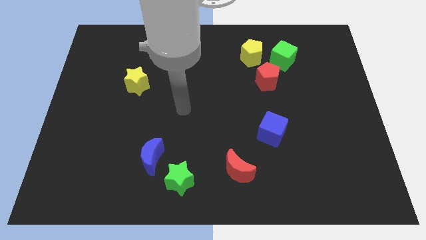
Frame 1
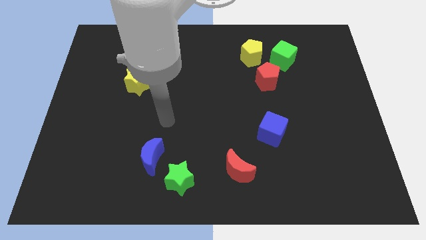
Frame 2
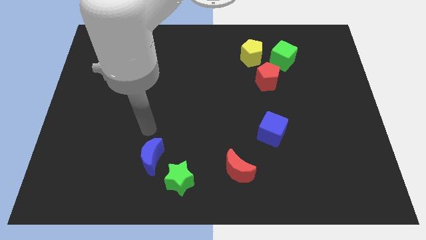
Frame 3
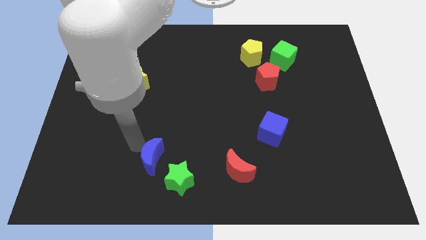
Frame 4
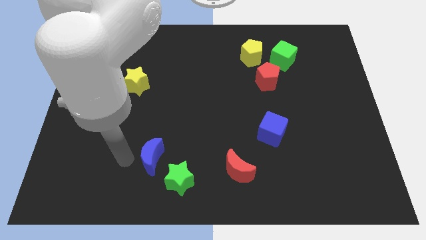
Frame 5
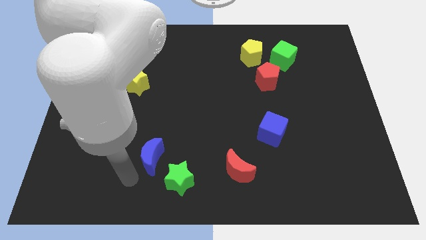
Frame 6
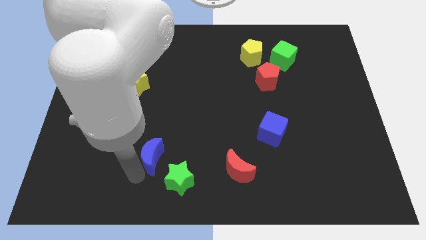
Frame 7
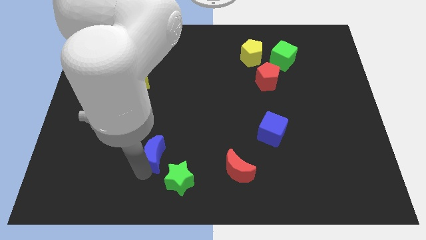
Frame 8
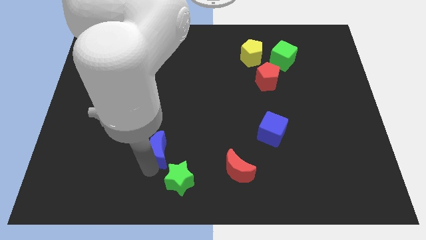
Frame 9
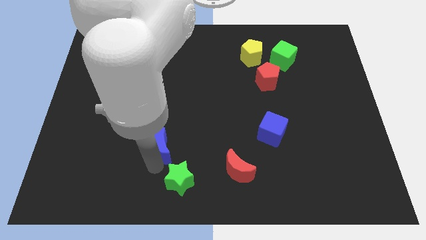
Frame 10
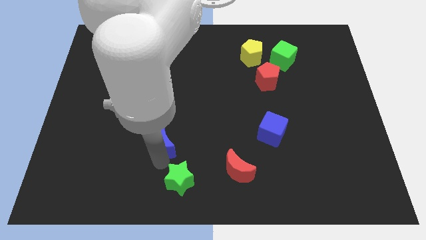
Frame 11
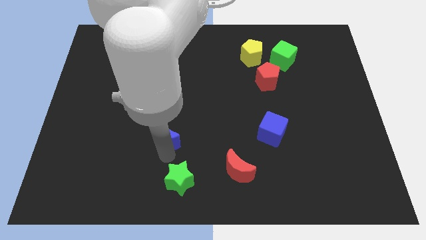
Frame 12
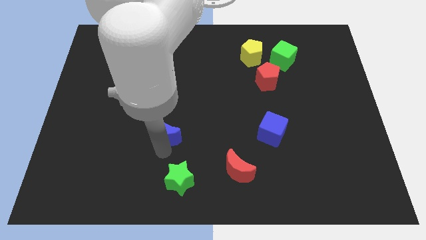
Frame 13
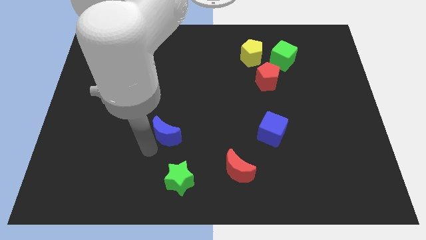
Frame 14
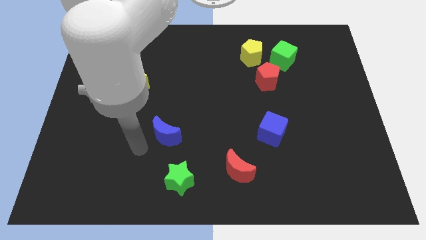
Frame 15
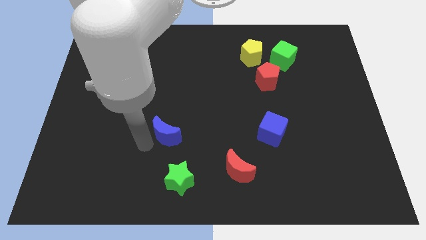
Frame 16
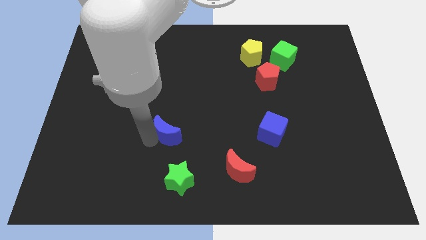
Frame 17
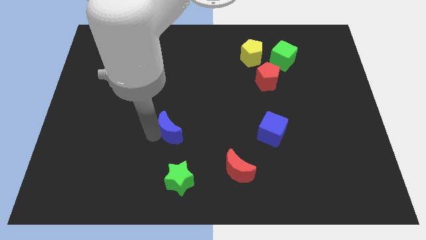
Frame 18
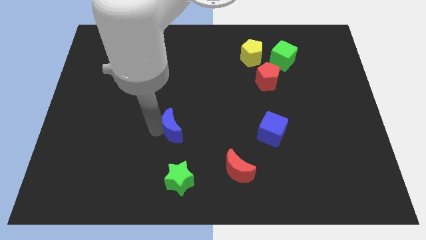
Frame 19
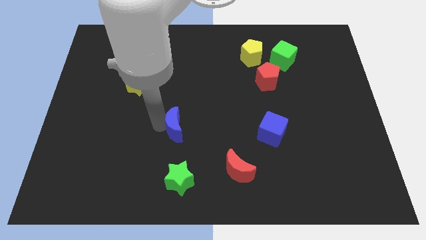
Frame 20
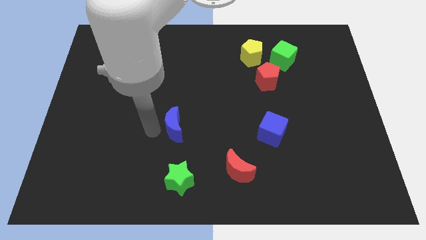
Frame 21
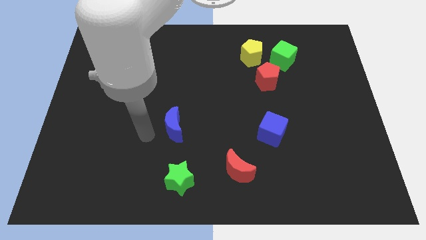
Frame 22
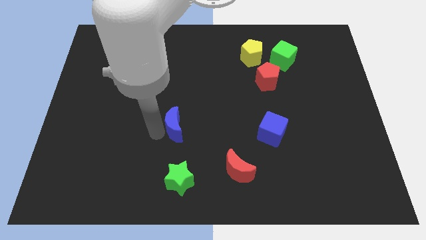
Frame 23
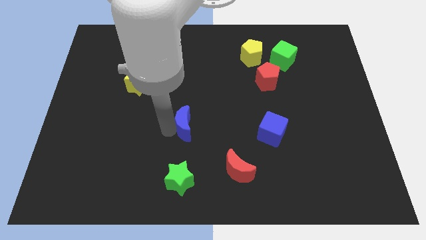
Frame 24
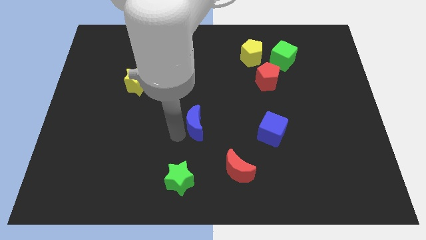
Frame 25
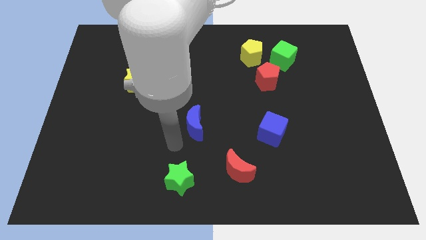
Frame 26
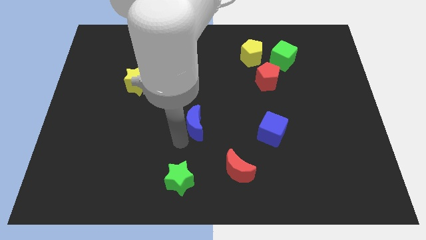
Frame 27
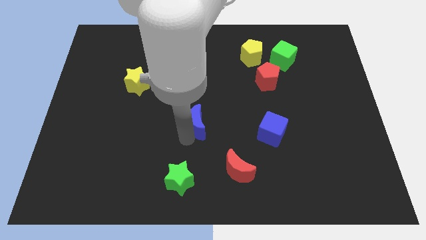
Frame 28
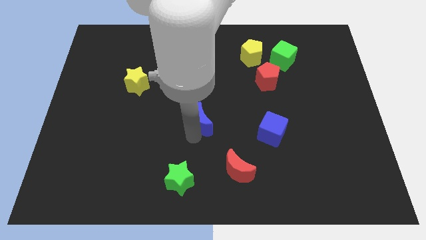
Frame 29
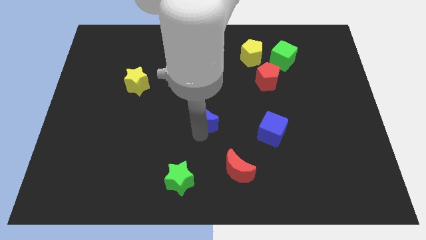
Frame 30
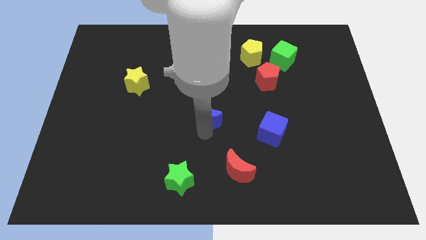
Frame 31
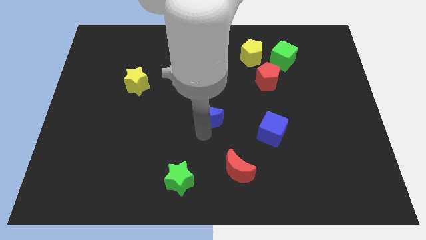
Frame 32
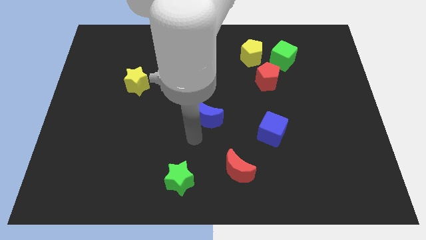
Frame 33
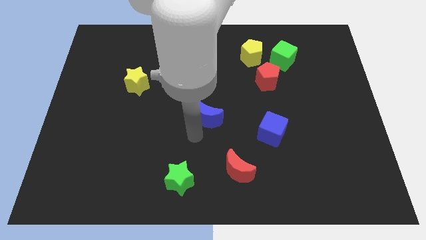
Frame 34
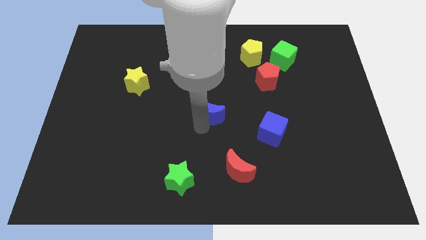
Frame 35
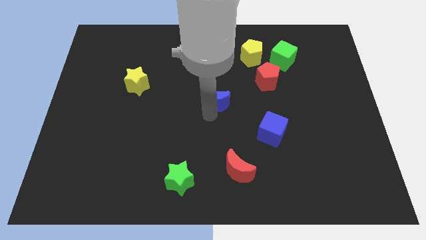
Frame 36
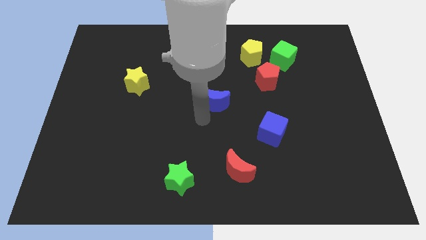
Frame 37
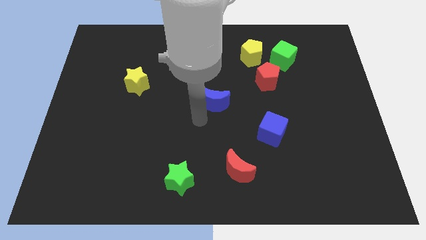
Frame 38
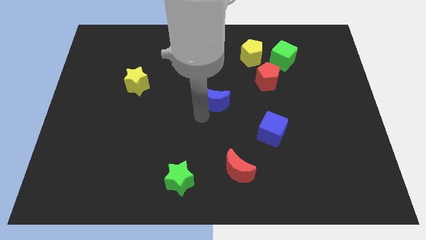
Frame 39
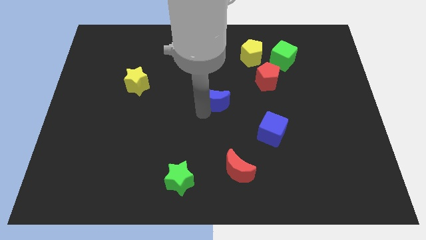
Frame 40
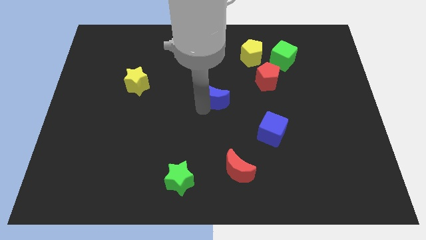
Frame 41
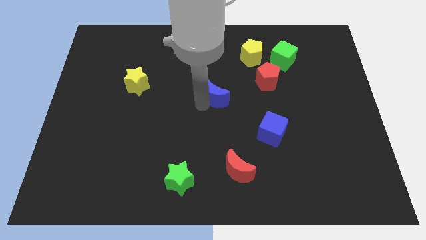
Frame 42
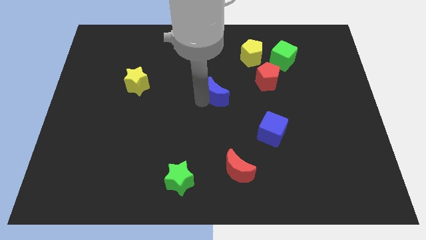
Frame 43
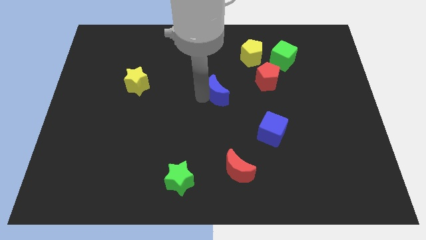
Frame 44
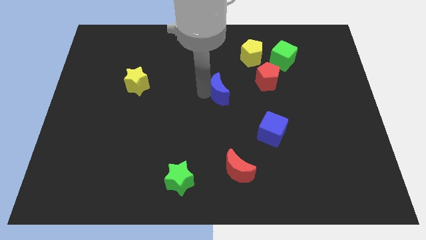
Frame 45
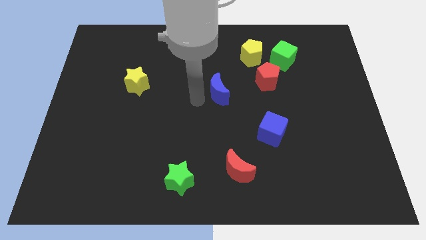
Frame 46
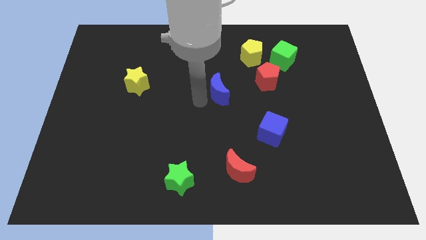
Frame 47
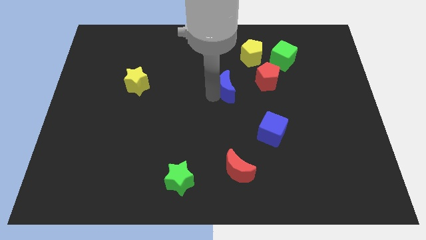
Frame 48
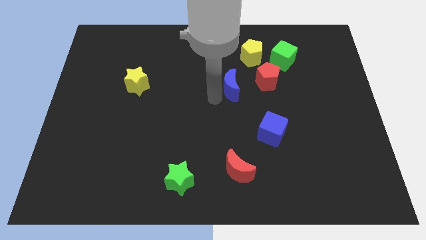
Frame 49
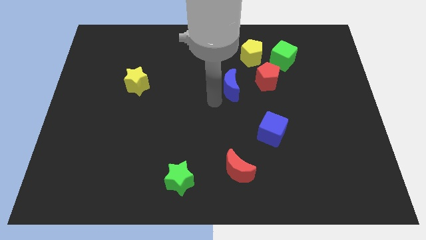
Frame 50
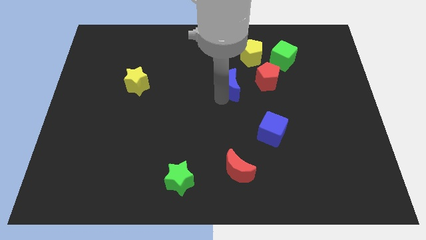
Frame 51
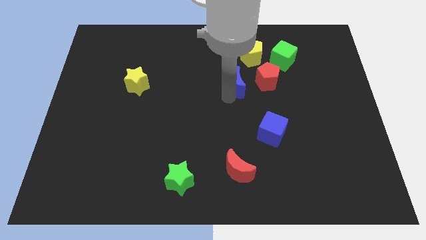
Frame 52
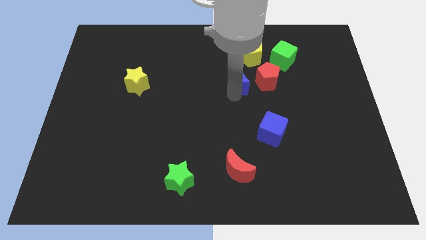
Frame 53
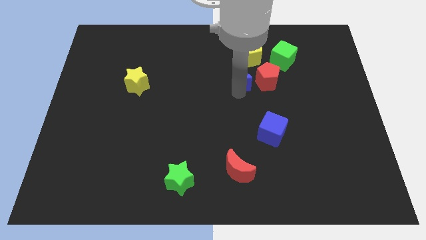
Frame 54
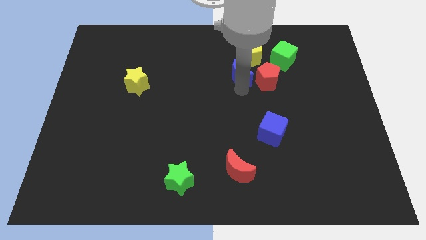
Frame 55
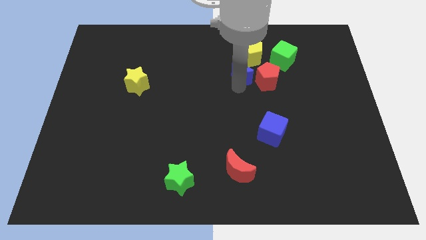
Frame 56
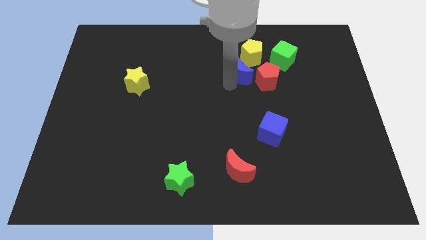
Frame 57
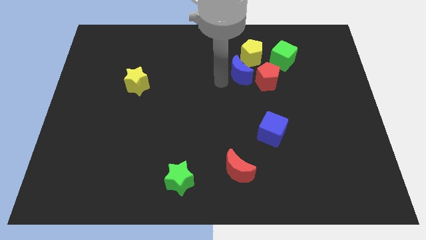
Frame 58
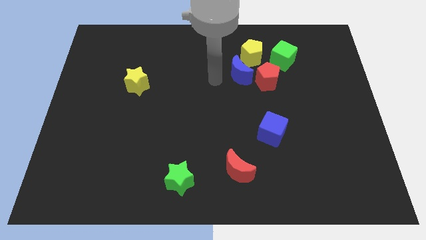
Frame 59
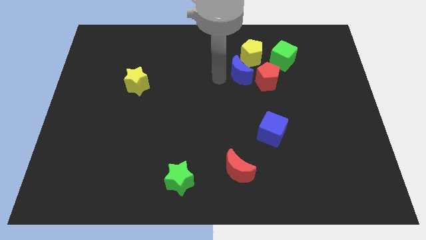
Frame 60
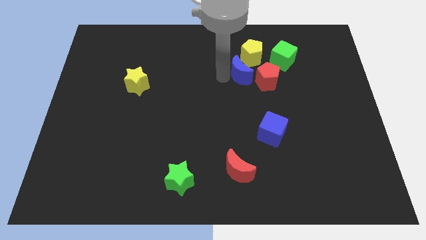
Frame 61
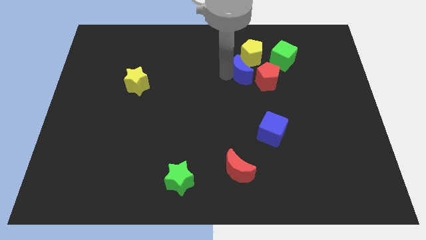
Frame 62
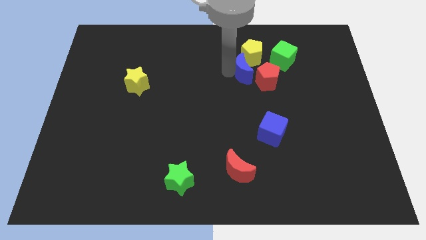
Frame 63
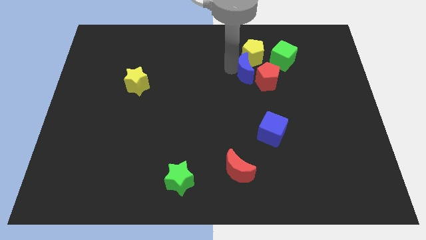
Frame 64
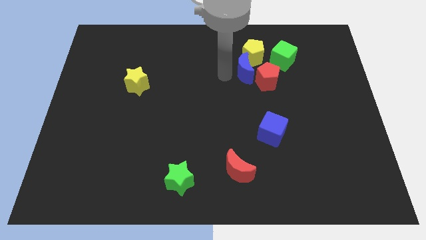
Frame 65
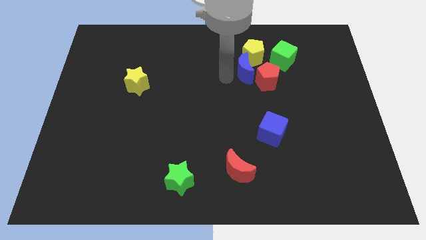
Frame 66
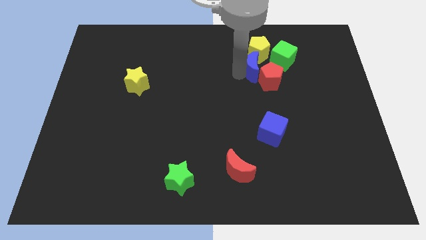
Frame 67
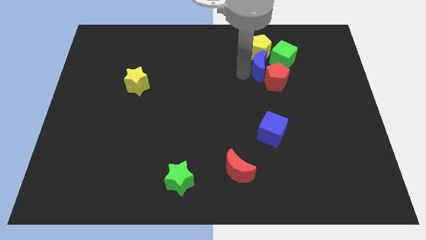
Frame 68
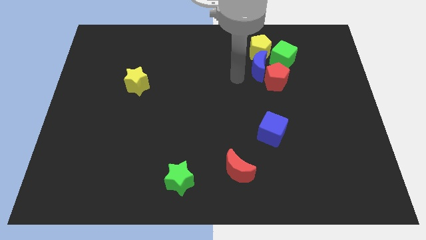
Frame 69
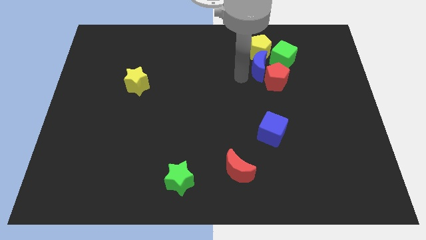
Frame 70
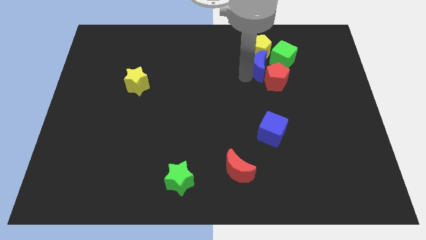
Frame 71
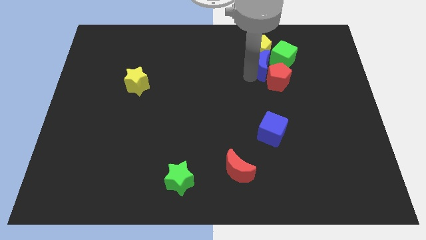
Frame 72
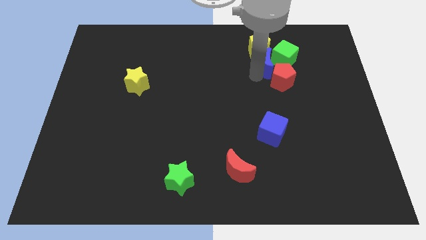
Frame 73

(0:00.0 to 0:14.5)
push the blue moon towards the green cube
